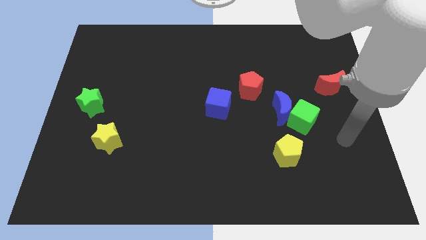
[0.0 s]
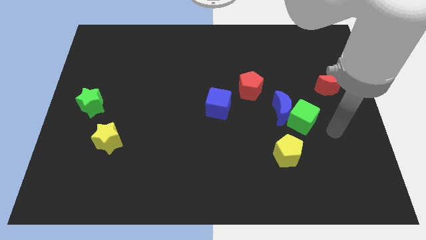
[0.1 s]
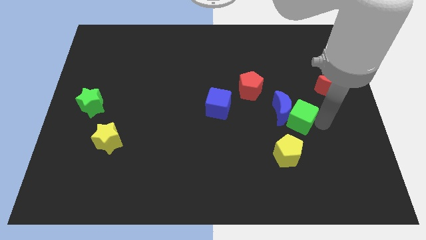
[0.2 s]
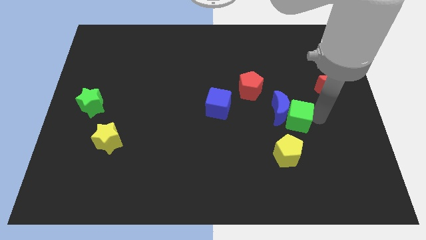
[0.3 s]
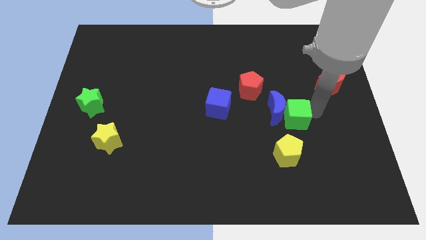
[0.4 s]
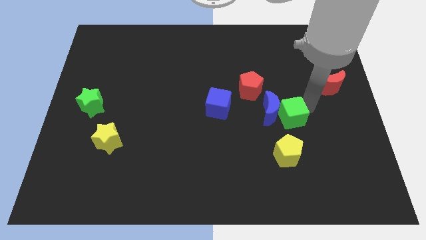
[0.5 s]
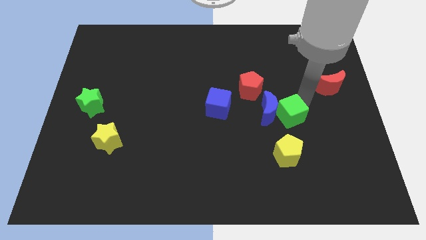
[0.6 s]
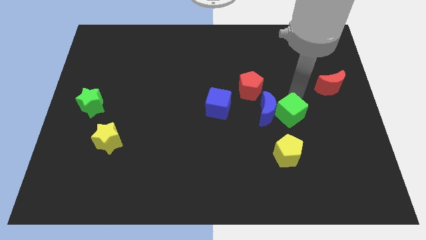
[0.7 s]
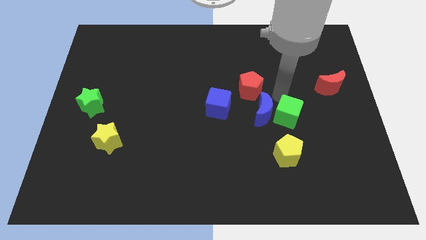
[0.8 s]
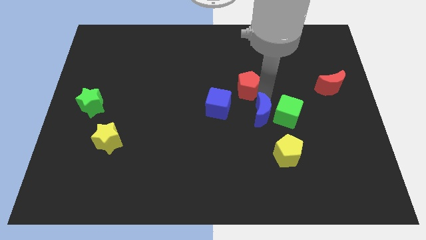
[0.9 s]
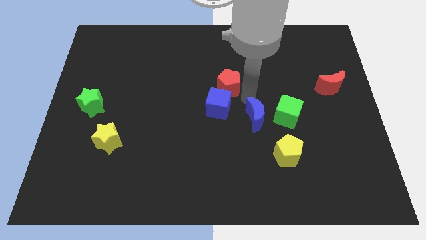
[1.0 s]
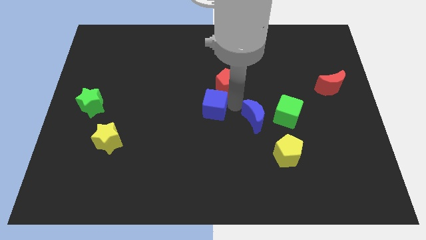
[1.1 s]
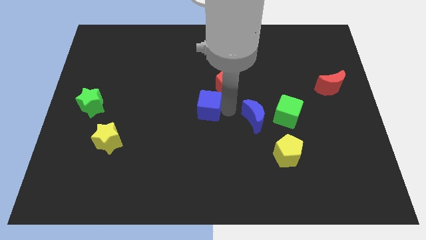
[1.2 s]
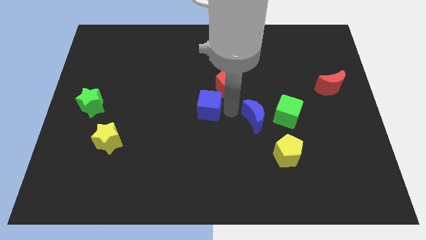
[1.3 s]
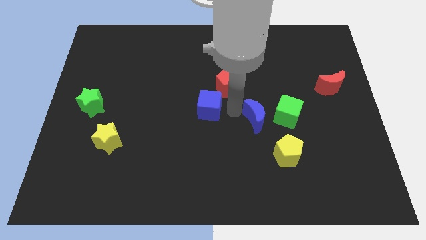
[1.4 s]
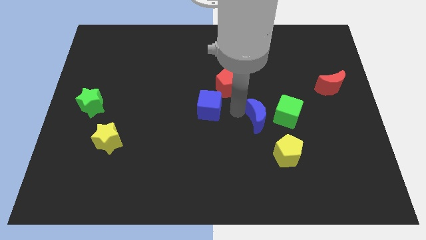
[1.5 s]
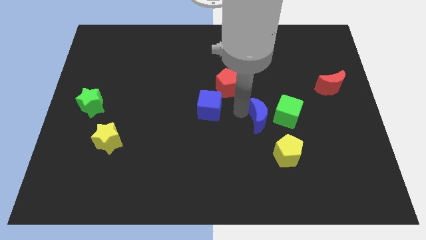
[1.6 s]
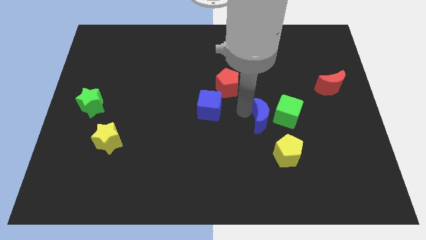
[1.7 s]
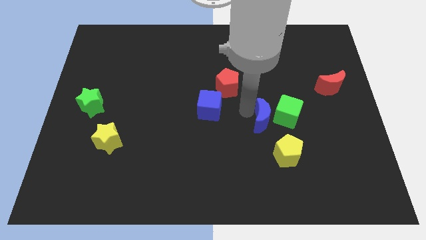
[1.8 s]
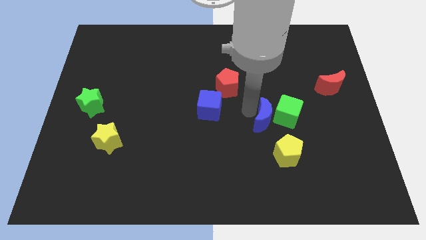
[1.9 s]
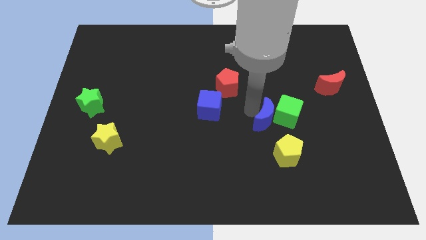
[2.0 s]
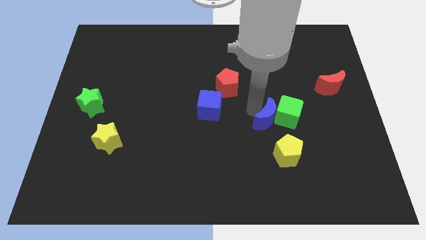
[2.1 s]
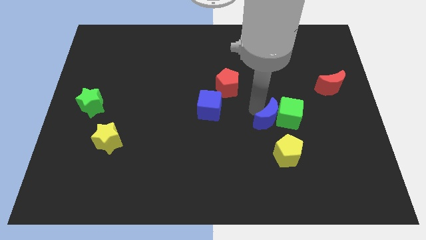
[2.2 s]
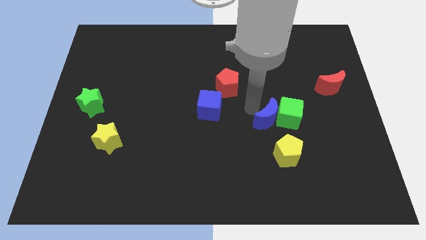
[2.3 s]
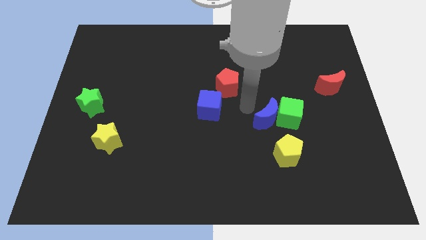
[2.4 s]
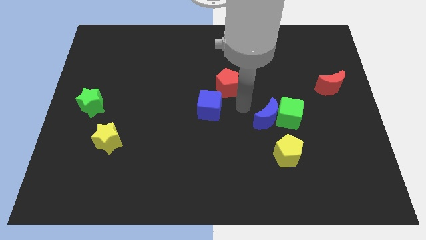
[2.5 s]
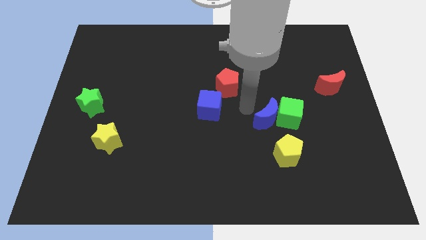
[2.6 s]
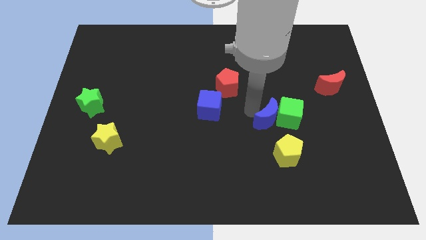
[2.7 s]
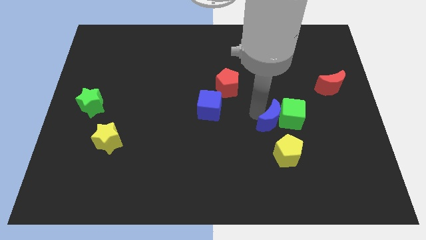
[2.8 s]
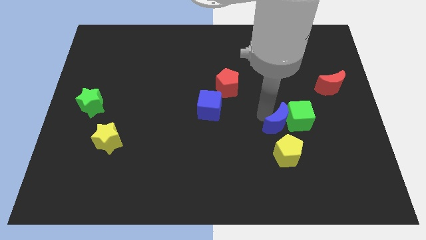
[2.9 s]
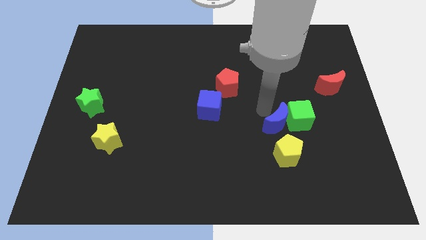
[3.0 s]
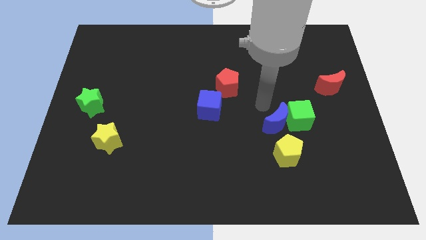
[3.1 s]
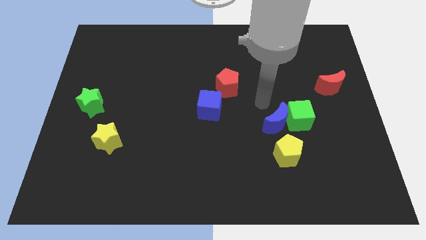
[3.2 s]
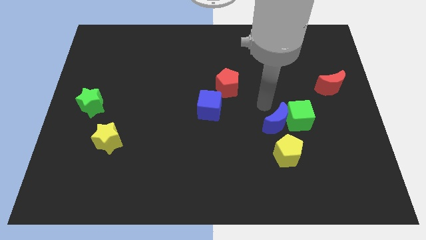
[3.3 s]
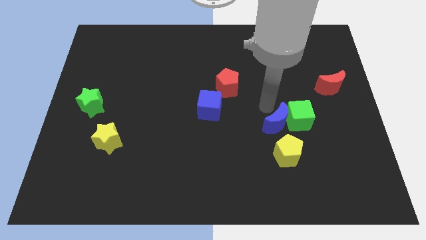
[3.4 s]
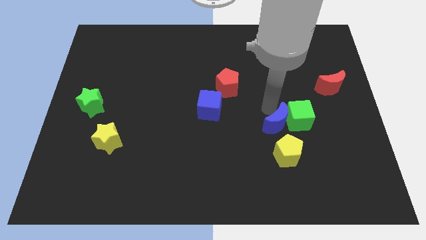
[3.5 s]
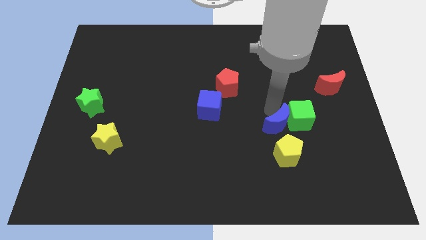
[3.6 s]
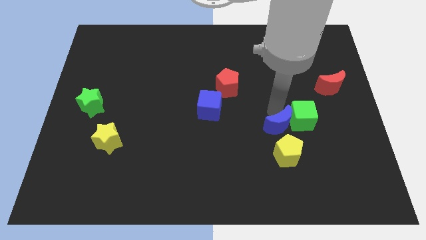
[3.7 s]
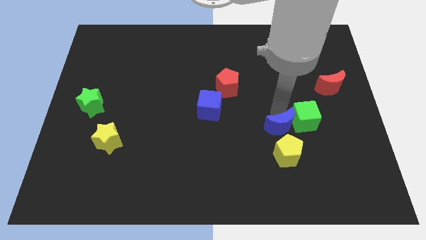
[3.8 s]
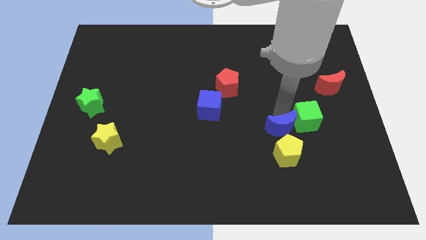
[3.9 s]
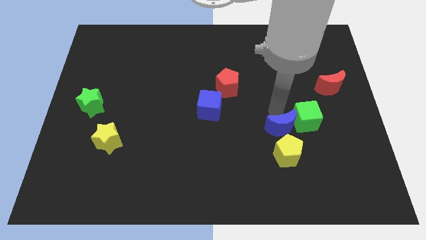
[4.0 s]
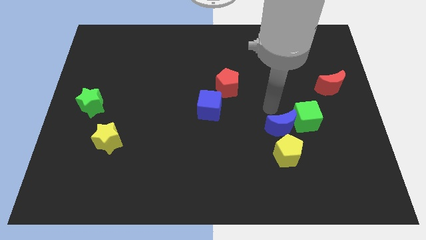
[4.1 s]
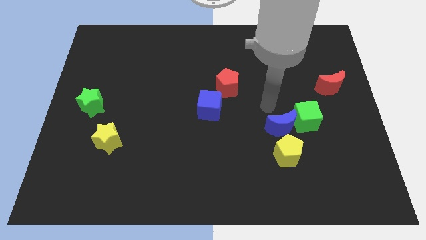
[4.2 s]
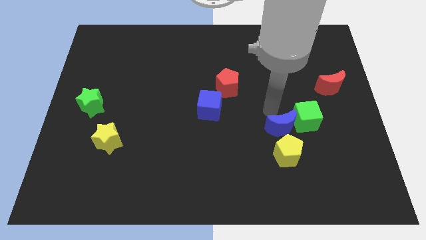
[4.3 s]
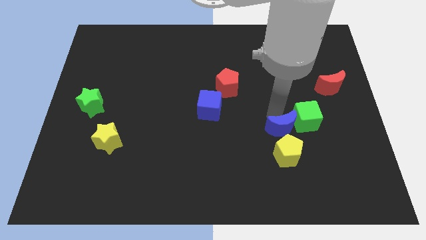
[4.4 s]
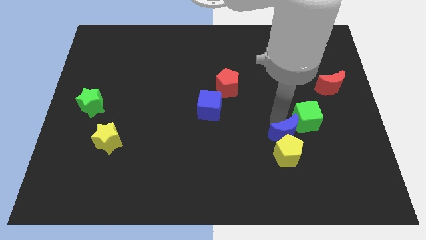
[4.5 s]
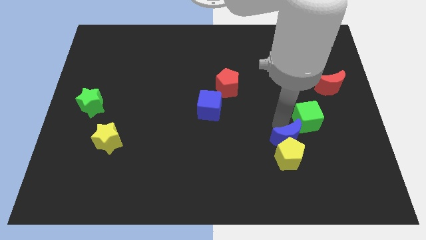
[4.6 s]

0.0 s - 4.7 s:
pull the blue moon apart from the green cube and red pentagon

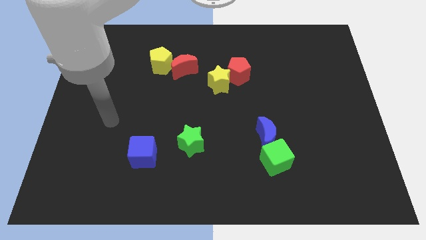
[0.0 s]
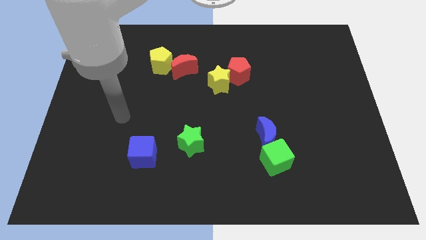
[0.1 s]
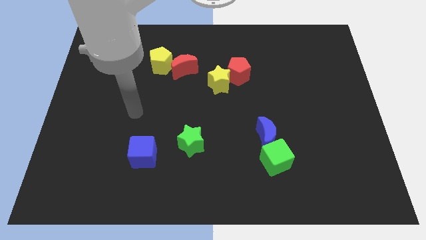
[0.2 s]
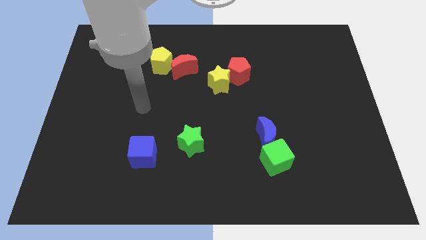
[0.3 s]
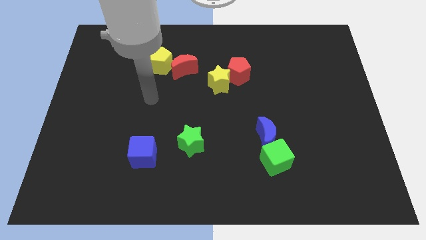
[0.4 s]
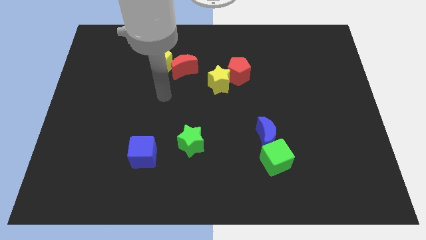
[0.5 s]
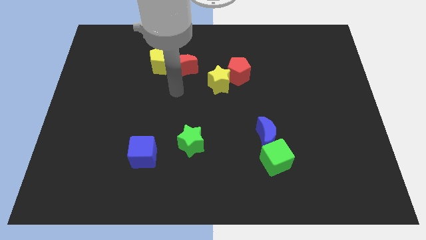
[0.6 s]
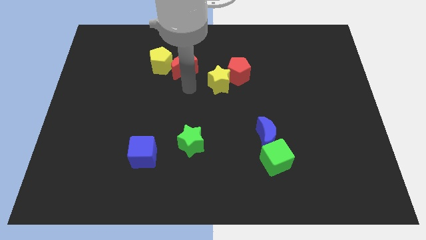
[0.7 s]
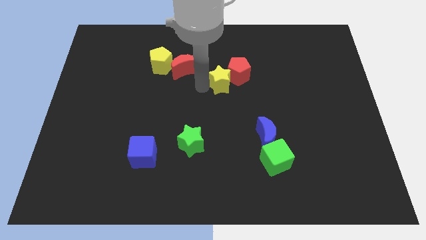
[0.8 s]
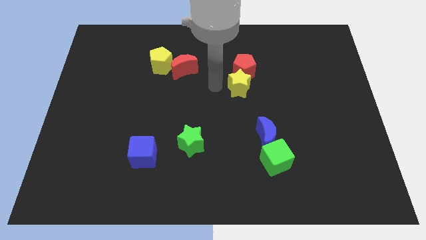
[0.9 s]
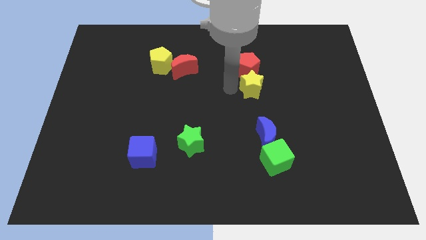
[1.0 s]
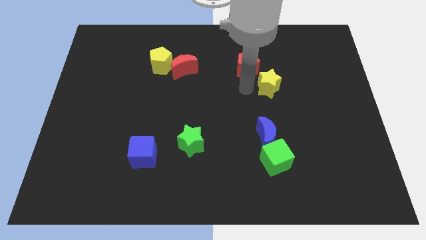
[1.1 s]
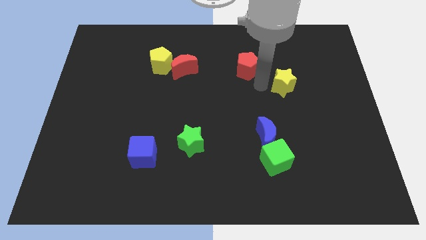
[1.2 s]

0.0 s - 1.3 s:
pull the red pentagon apart from the yellow star

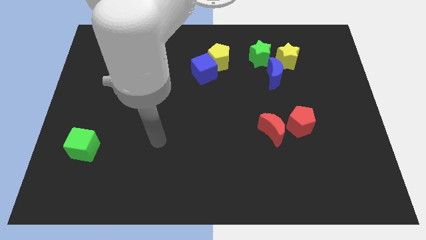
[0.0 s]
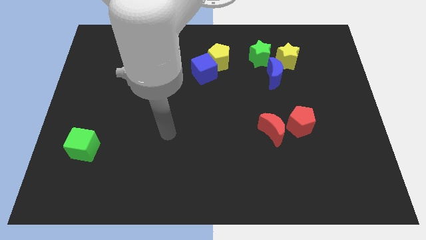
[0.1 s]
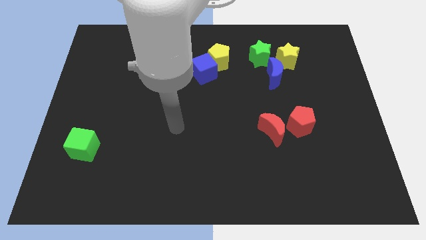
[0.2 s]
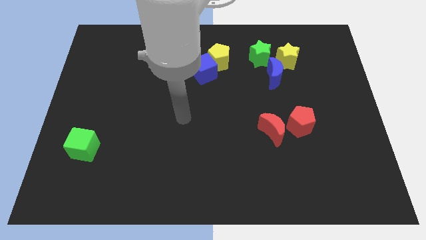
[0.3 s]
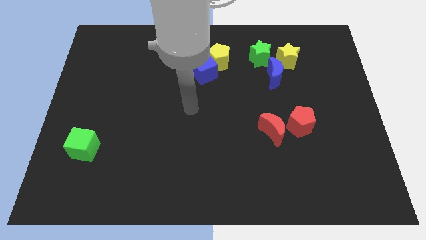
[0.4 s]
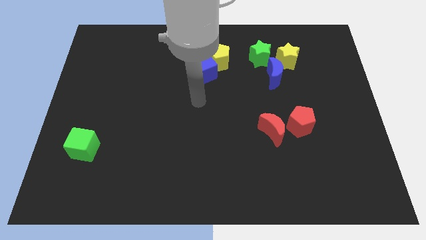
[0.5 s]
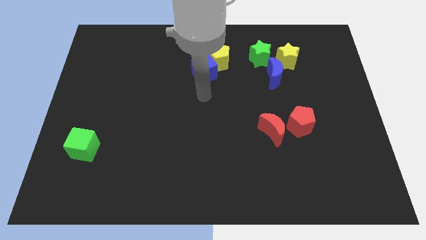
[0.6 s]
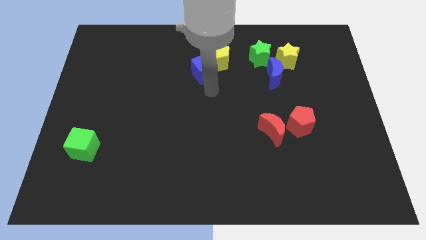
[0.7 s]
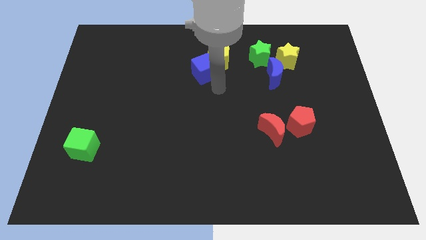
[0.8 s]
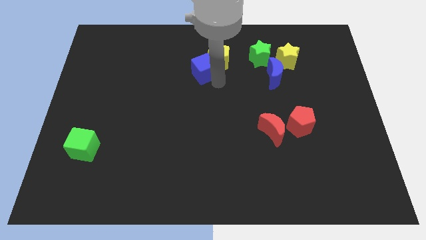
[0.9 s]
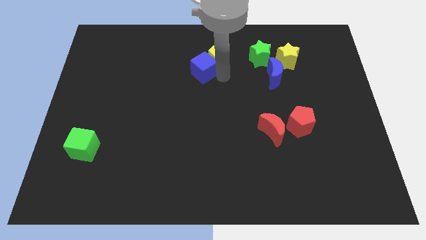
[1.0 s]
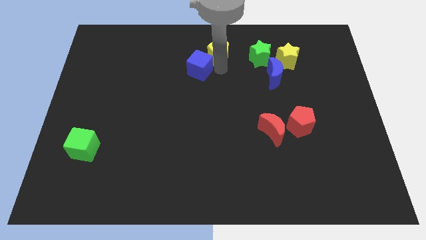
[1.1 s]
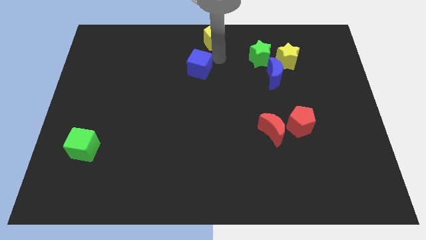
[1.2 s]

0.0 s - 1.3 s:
separate the blue cube from the yellow pentagon

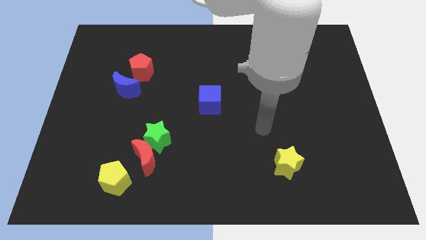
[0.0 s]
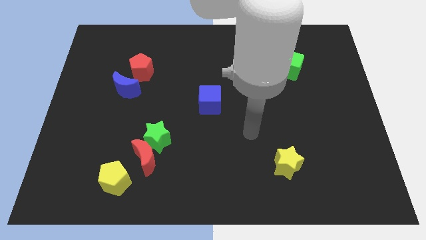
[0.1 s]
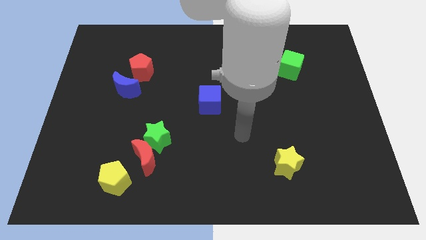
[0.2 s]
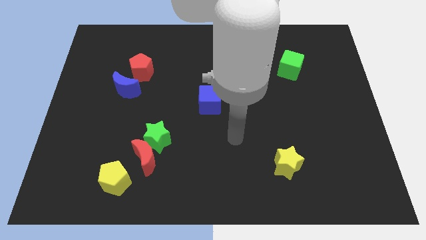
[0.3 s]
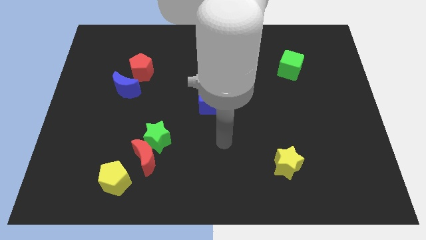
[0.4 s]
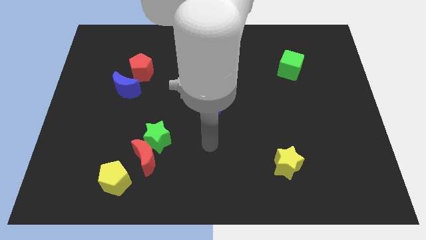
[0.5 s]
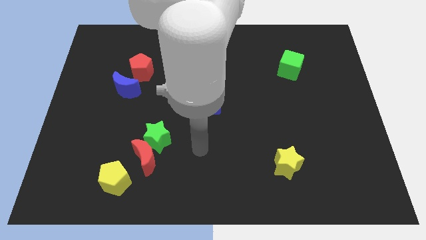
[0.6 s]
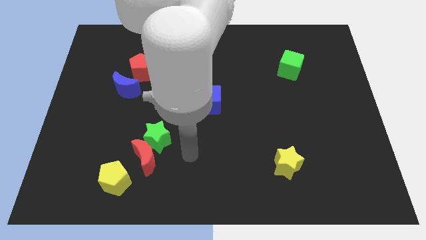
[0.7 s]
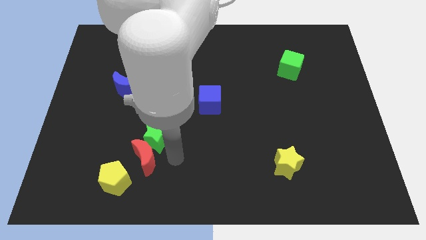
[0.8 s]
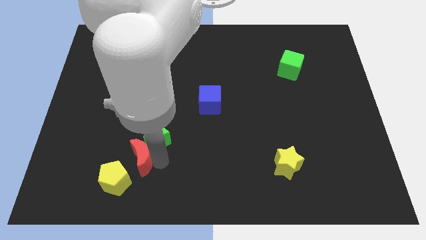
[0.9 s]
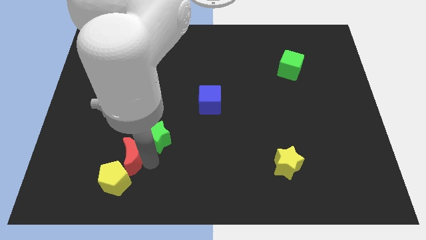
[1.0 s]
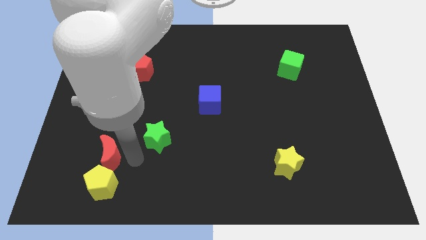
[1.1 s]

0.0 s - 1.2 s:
pull the green star apart from the red moon

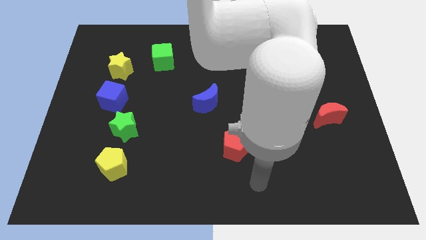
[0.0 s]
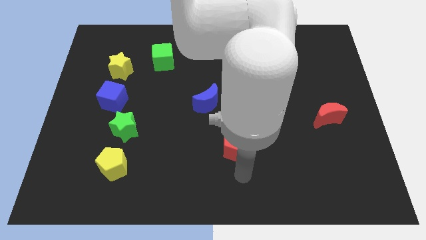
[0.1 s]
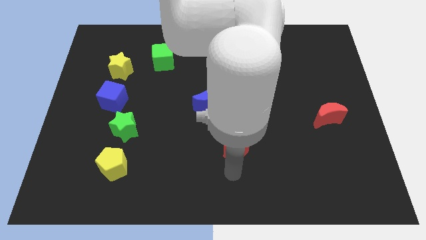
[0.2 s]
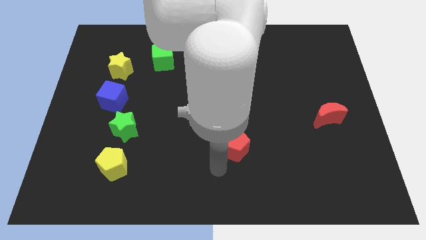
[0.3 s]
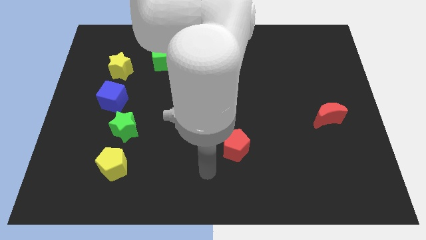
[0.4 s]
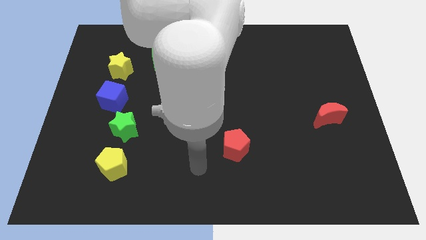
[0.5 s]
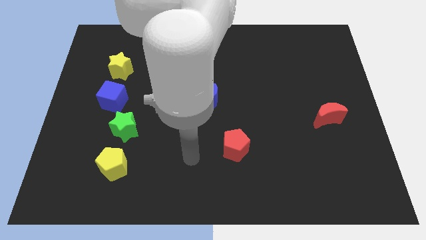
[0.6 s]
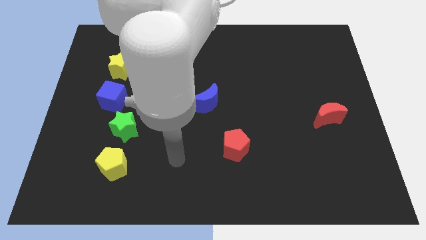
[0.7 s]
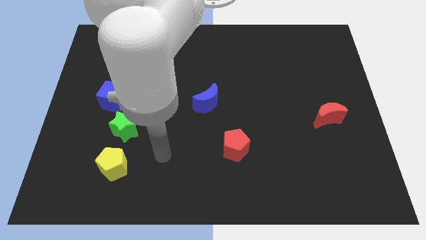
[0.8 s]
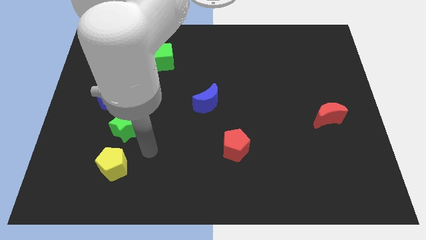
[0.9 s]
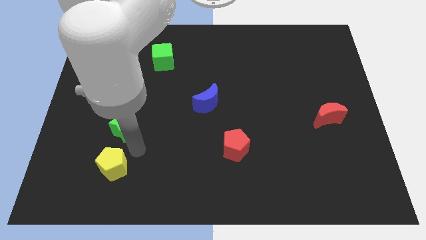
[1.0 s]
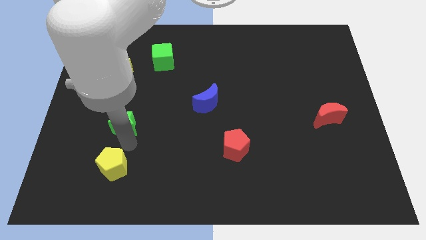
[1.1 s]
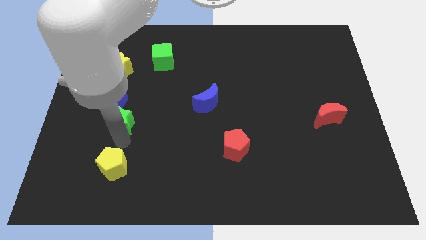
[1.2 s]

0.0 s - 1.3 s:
move the yellow pentagon away from the green star
